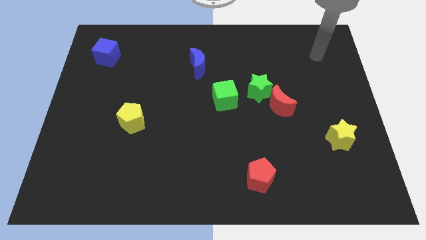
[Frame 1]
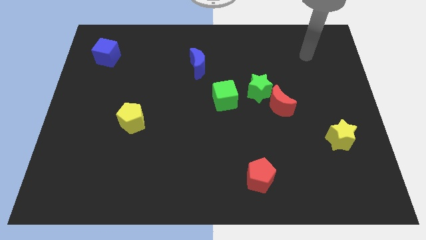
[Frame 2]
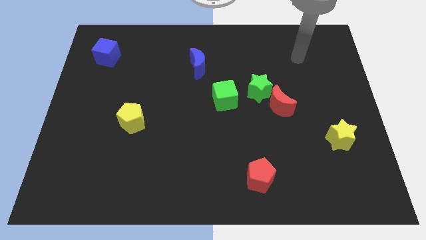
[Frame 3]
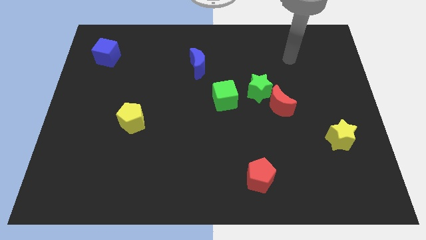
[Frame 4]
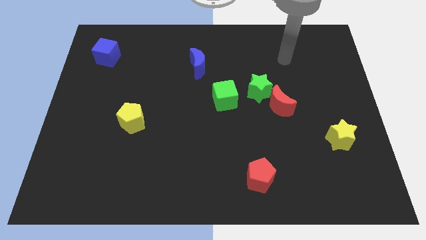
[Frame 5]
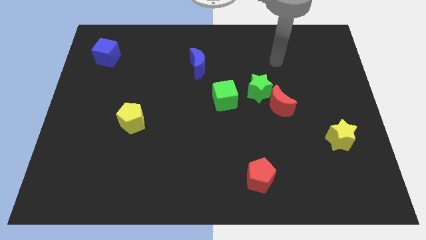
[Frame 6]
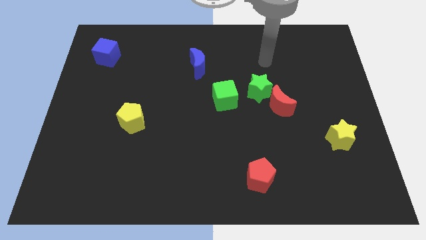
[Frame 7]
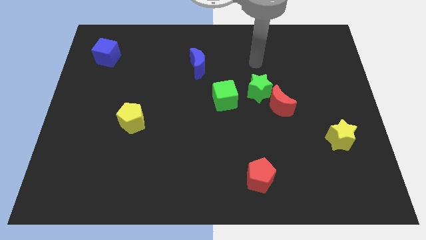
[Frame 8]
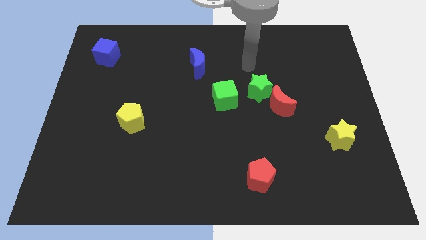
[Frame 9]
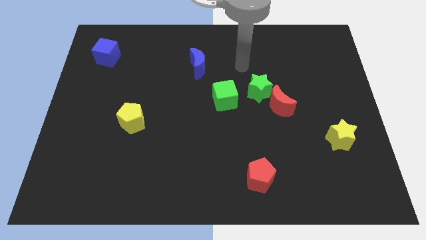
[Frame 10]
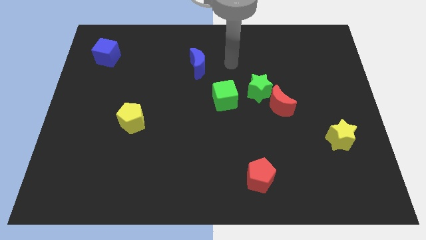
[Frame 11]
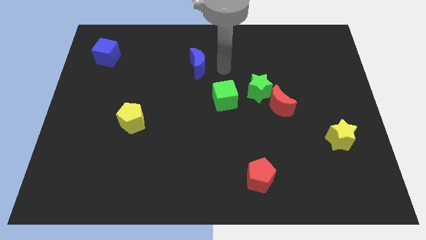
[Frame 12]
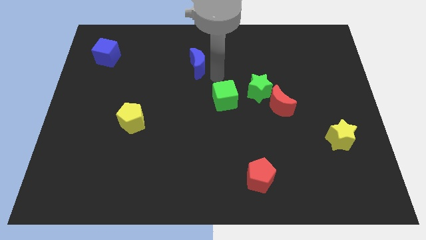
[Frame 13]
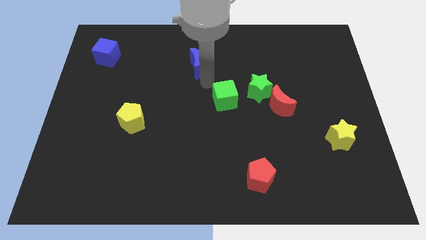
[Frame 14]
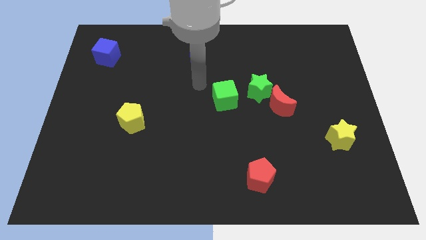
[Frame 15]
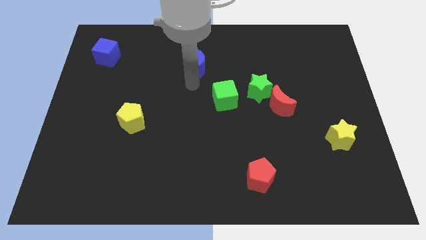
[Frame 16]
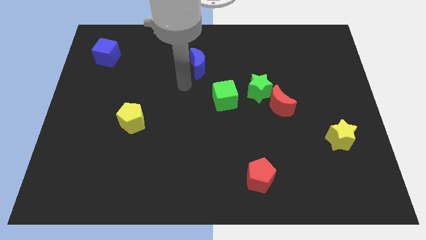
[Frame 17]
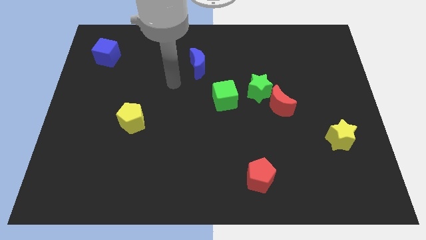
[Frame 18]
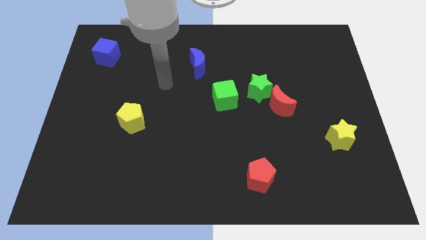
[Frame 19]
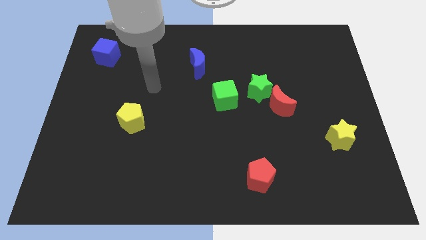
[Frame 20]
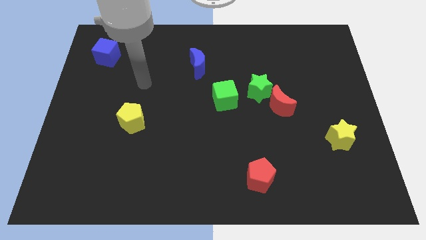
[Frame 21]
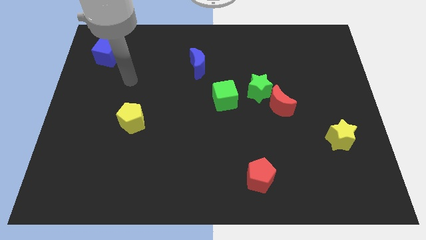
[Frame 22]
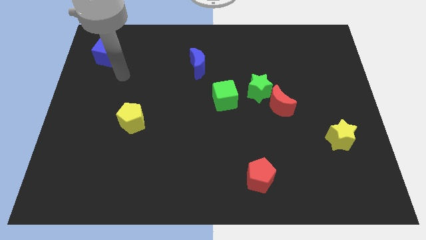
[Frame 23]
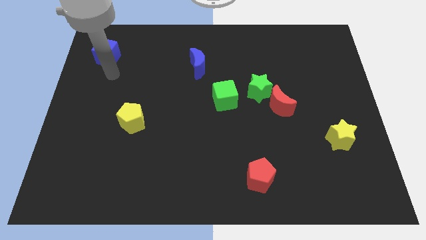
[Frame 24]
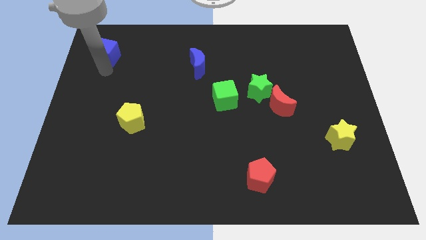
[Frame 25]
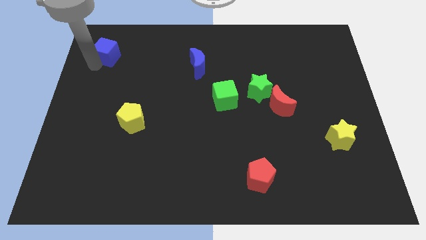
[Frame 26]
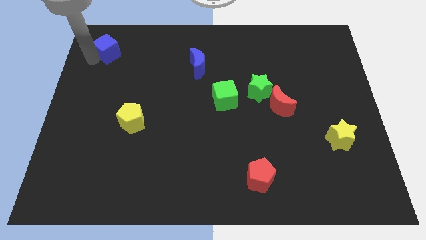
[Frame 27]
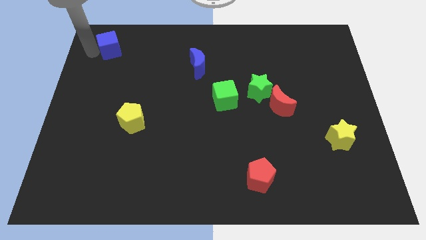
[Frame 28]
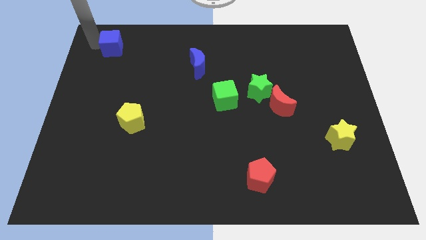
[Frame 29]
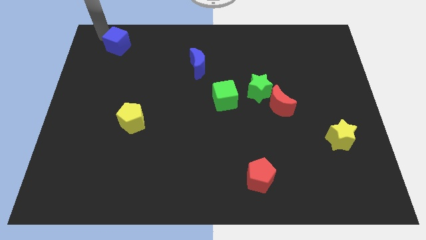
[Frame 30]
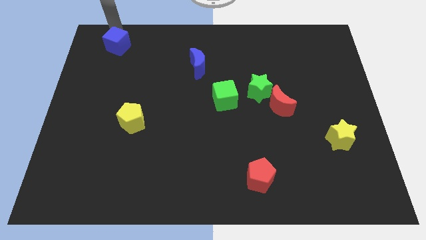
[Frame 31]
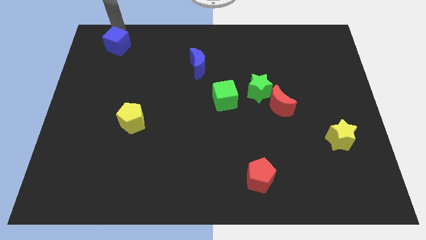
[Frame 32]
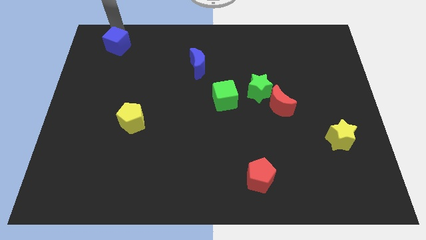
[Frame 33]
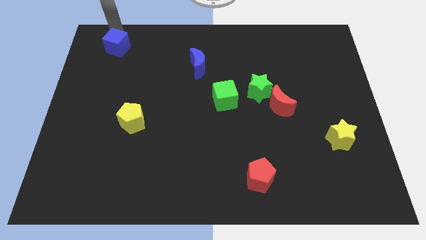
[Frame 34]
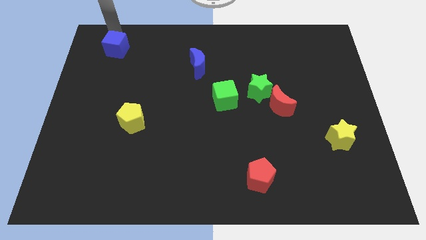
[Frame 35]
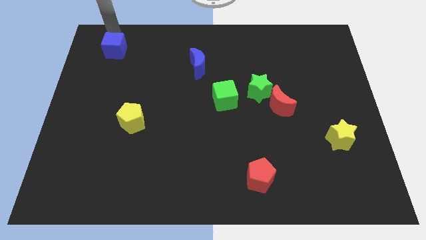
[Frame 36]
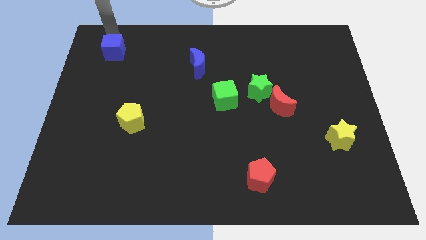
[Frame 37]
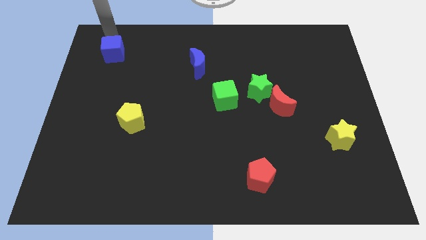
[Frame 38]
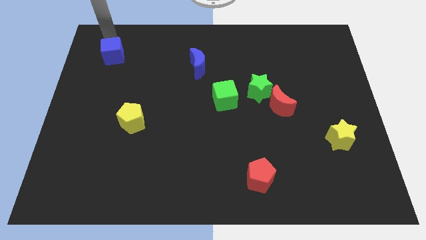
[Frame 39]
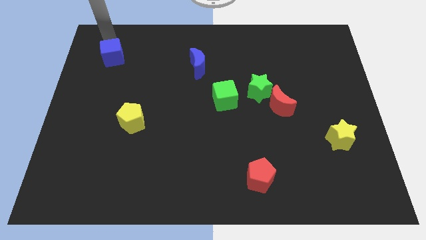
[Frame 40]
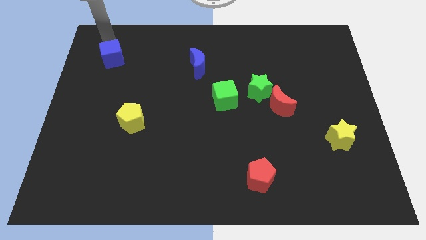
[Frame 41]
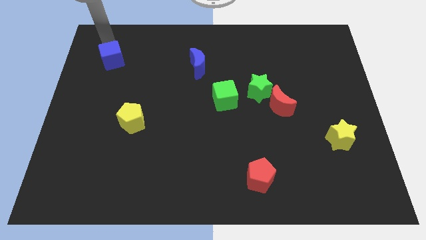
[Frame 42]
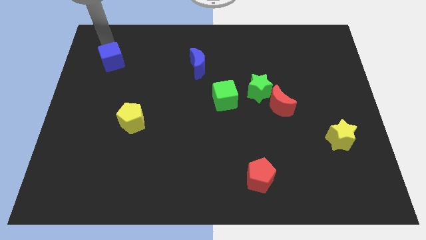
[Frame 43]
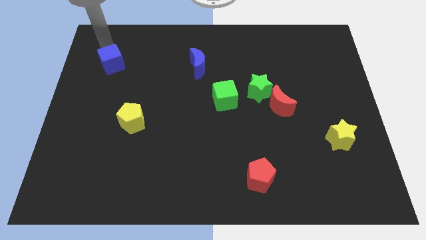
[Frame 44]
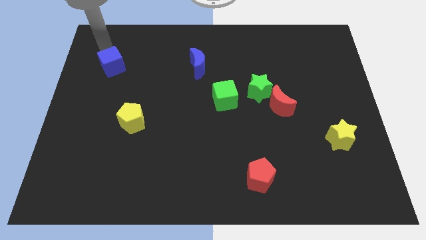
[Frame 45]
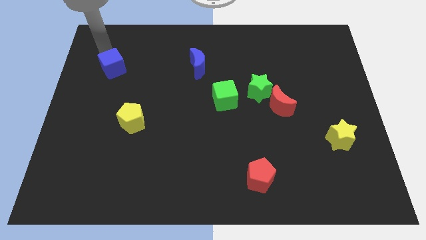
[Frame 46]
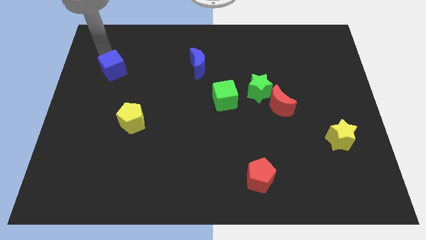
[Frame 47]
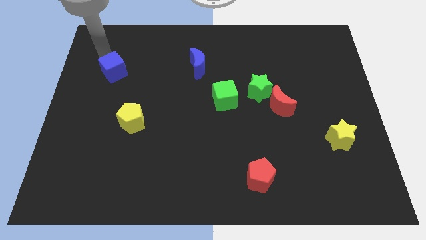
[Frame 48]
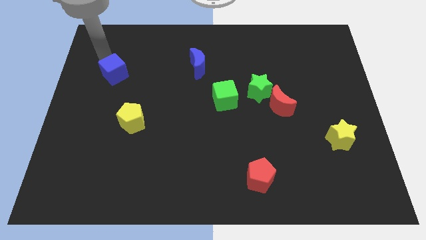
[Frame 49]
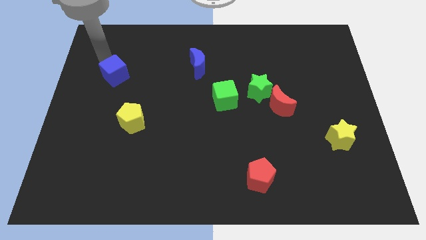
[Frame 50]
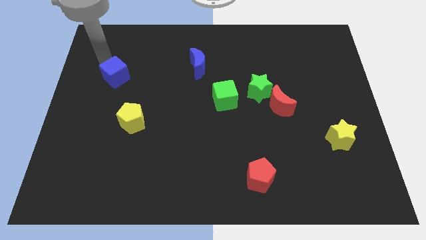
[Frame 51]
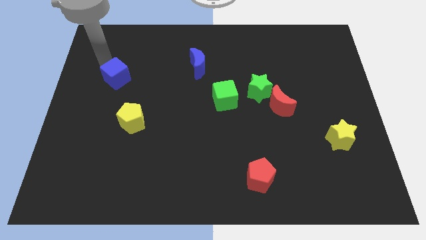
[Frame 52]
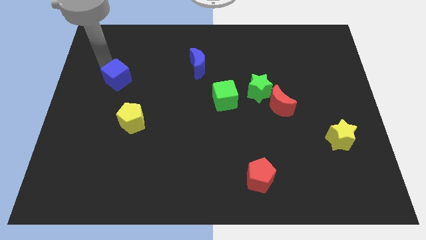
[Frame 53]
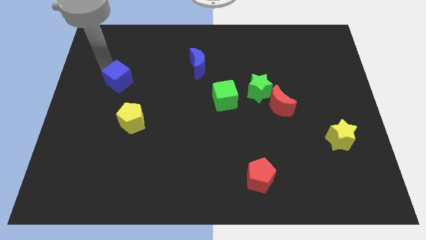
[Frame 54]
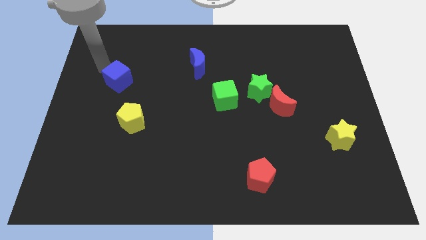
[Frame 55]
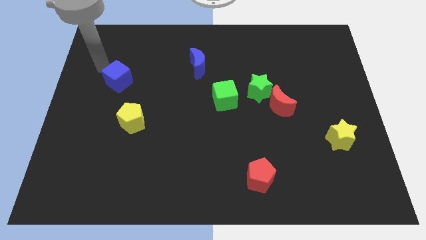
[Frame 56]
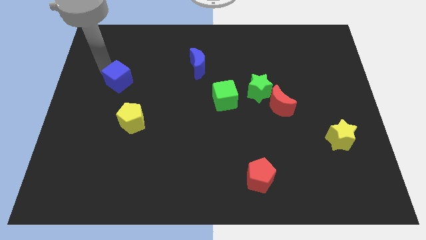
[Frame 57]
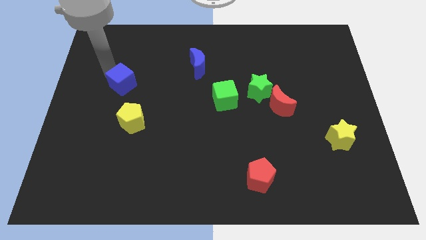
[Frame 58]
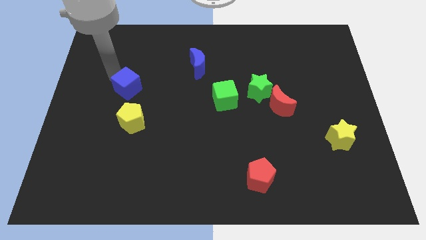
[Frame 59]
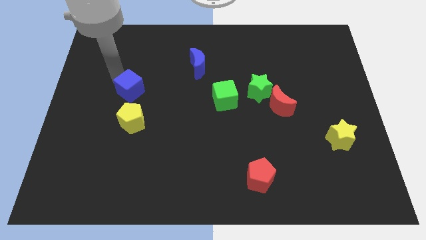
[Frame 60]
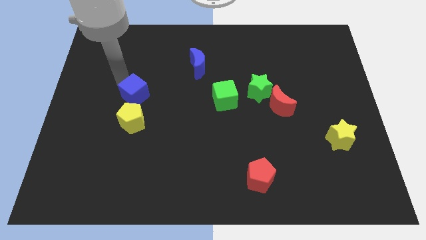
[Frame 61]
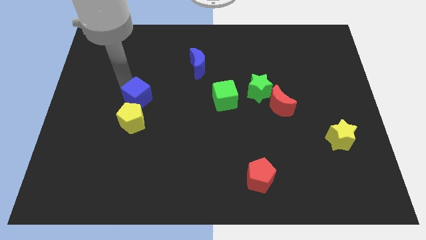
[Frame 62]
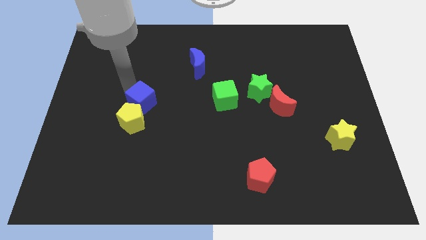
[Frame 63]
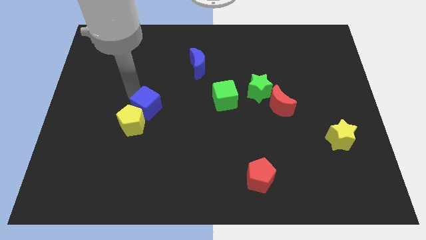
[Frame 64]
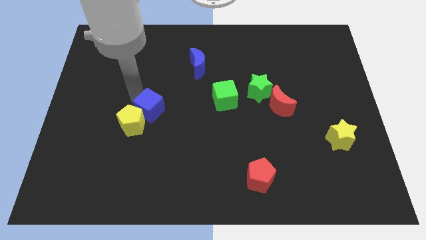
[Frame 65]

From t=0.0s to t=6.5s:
put the blue cube just right of the yellow pentagon
